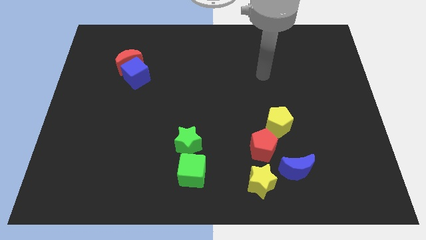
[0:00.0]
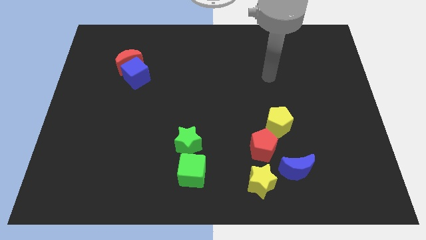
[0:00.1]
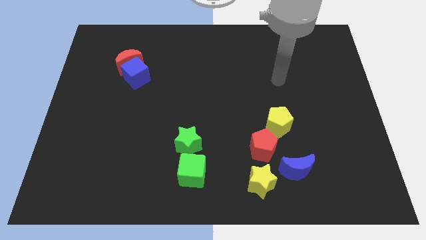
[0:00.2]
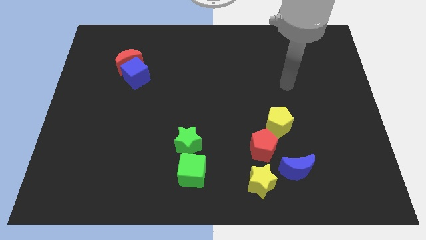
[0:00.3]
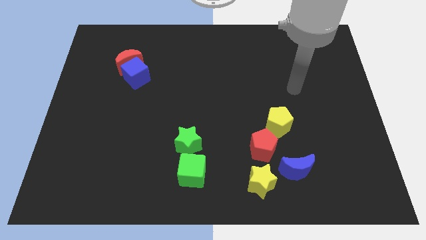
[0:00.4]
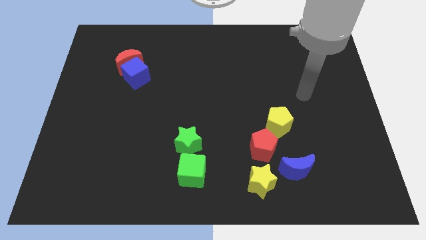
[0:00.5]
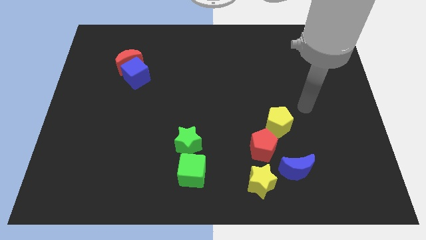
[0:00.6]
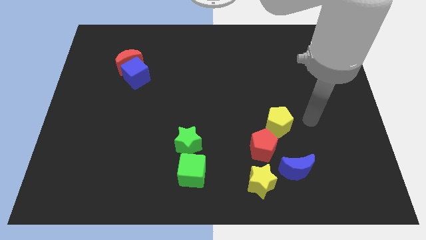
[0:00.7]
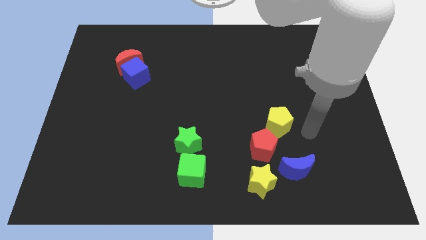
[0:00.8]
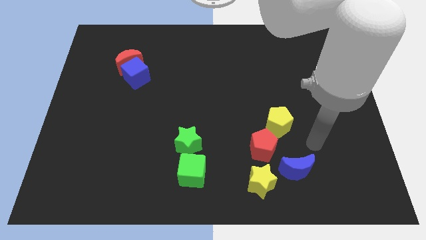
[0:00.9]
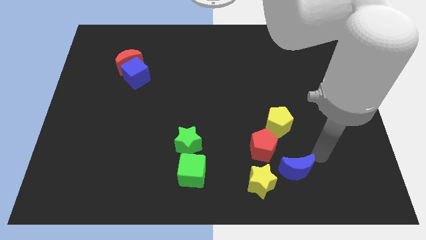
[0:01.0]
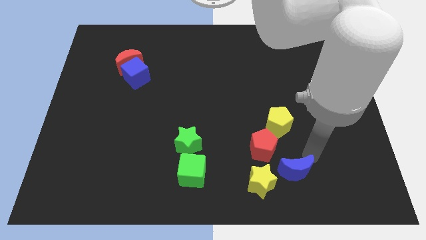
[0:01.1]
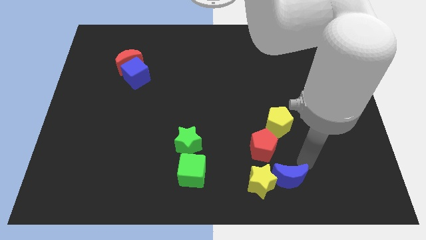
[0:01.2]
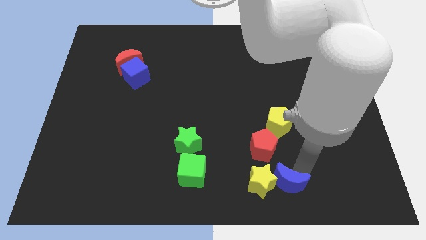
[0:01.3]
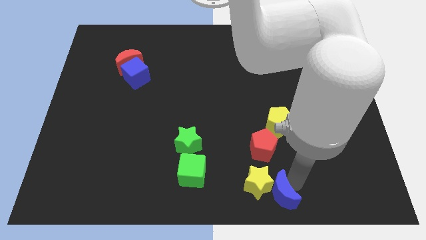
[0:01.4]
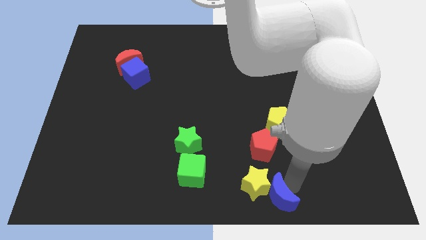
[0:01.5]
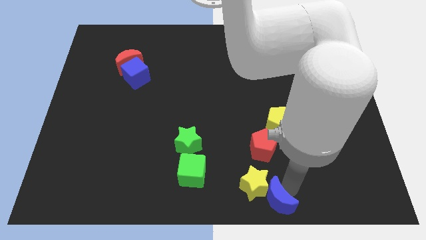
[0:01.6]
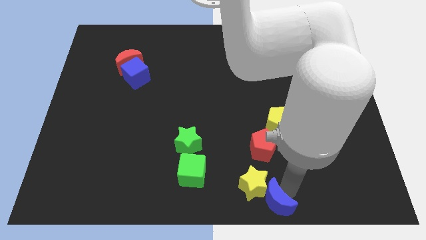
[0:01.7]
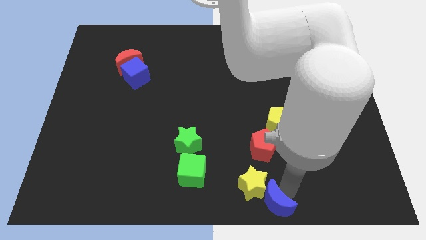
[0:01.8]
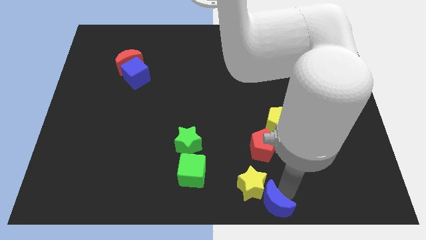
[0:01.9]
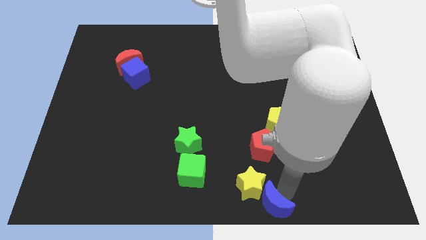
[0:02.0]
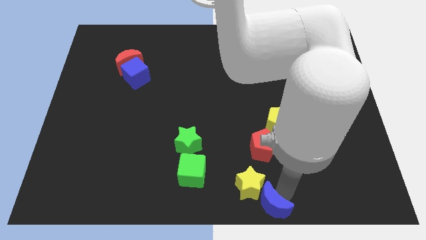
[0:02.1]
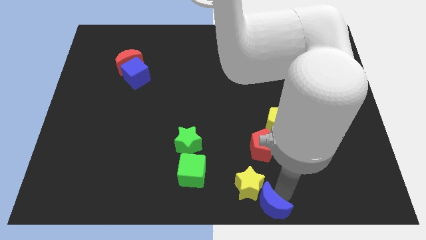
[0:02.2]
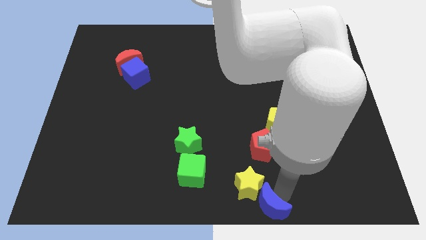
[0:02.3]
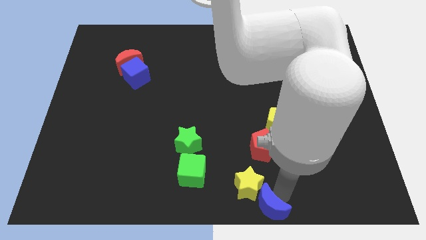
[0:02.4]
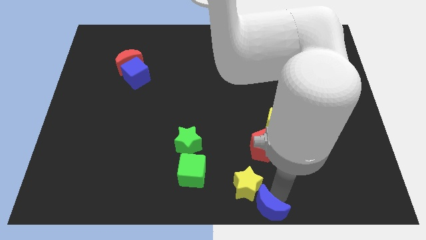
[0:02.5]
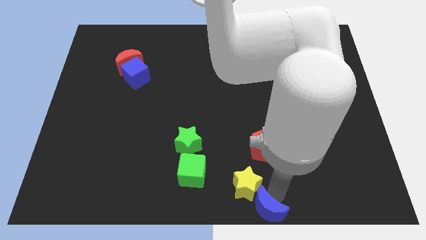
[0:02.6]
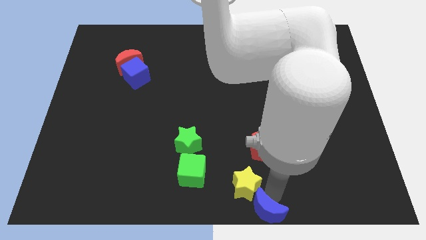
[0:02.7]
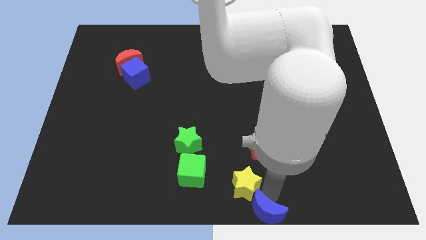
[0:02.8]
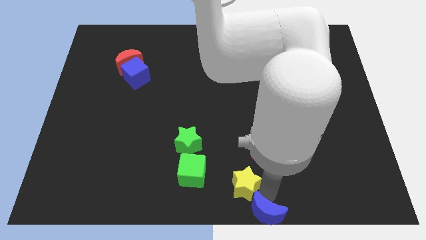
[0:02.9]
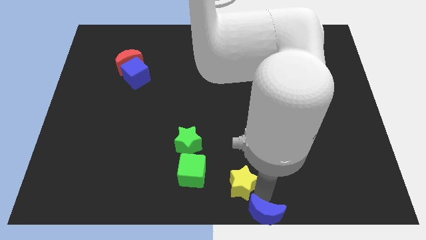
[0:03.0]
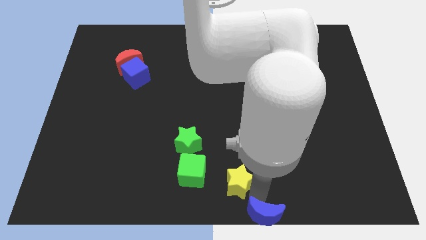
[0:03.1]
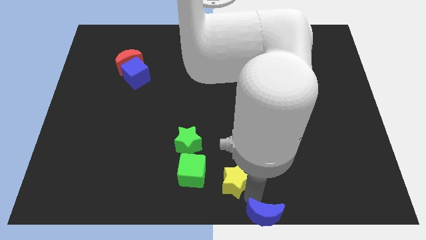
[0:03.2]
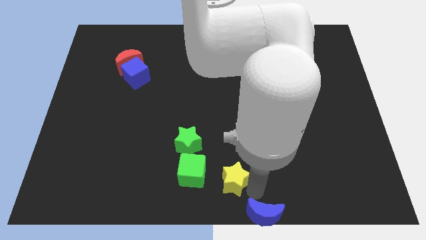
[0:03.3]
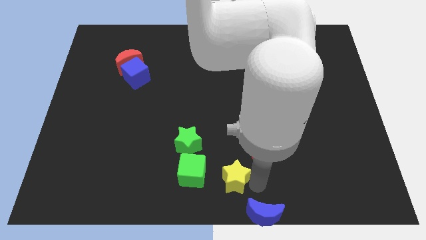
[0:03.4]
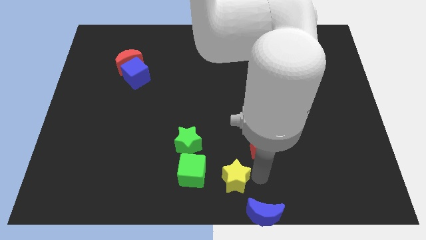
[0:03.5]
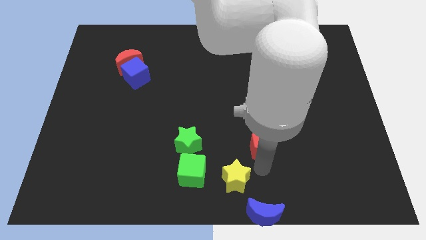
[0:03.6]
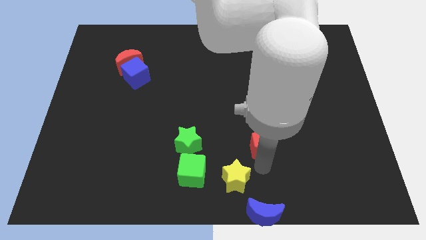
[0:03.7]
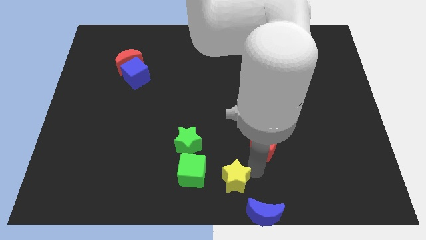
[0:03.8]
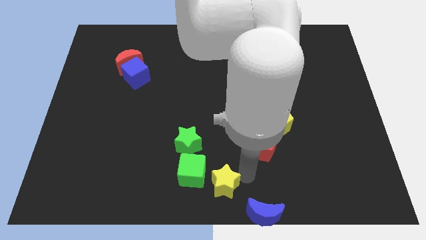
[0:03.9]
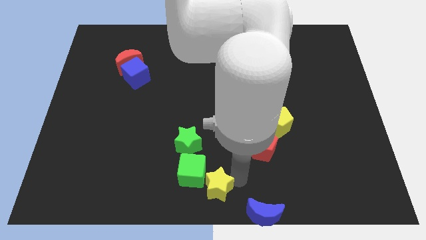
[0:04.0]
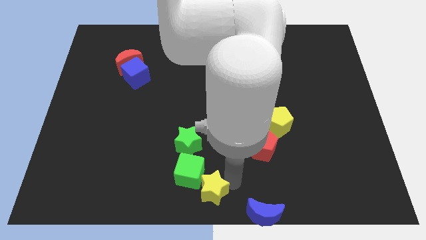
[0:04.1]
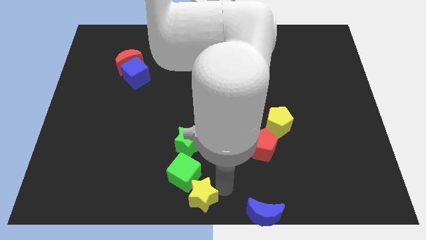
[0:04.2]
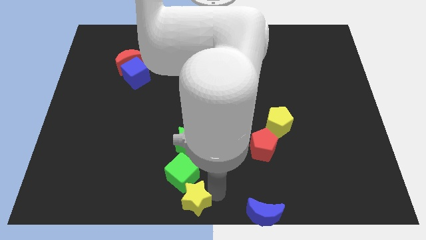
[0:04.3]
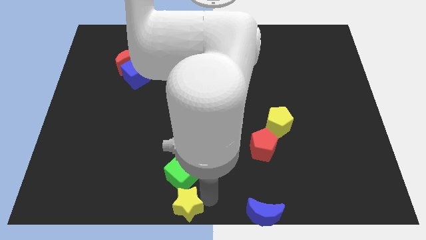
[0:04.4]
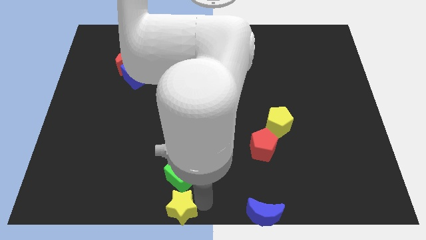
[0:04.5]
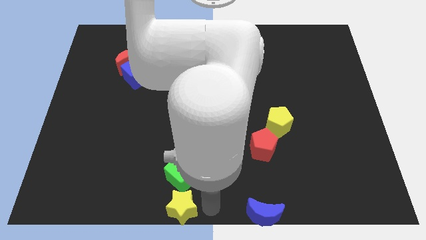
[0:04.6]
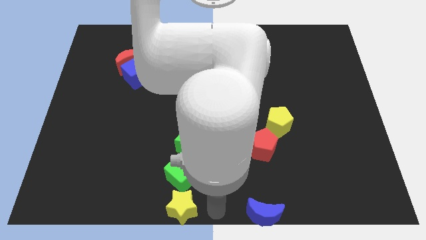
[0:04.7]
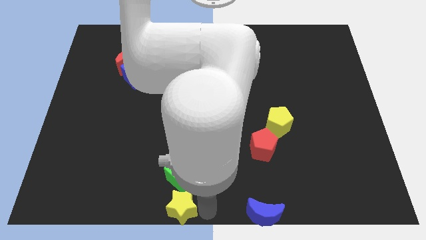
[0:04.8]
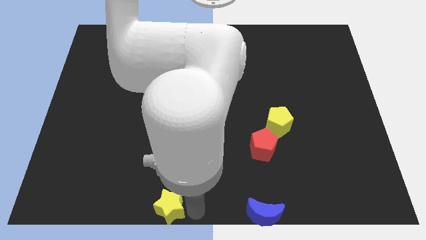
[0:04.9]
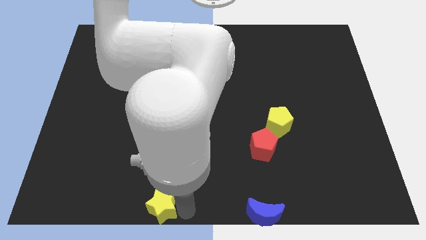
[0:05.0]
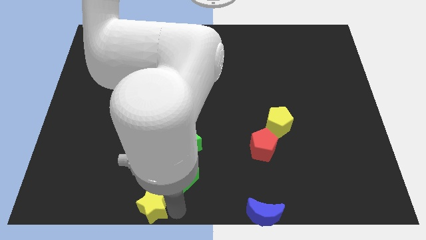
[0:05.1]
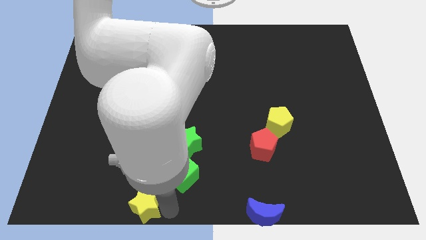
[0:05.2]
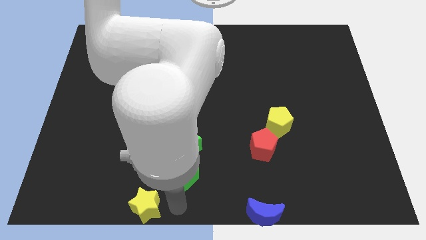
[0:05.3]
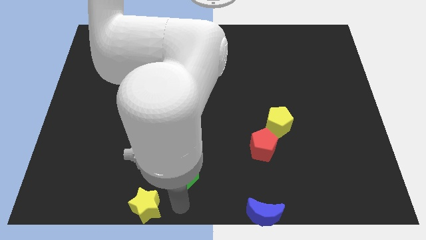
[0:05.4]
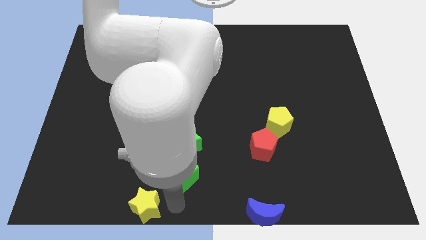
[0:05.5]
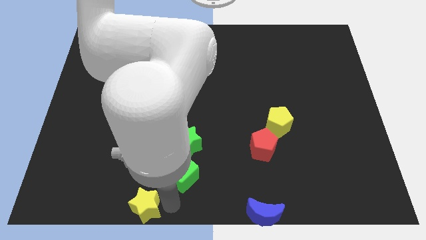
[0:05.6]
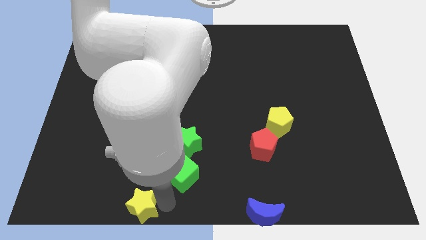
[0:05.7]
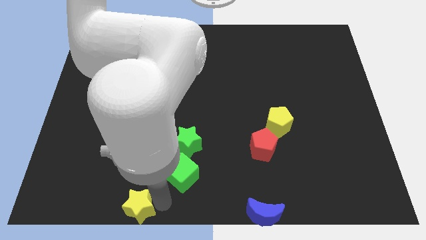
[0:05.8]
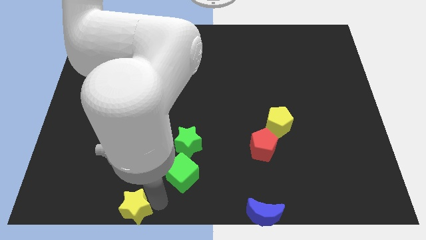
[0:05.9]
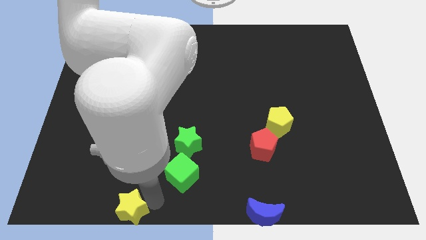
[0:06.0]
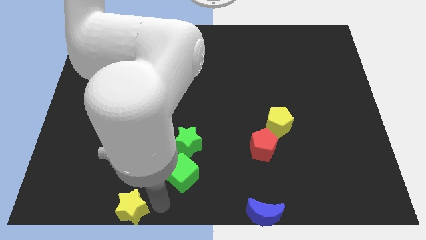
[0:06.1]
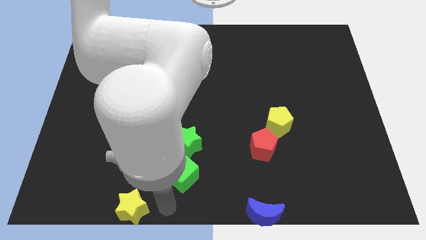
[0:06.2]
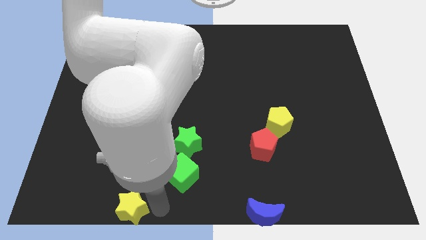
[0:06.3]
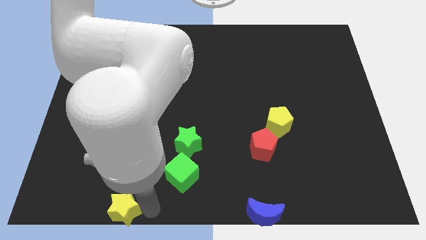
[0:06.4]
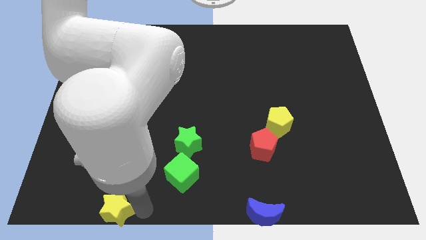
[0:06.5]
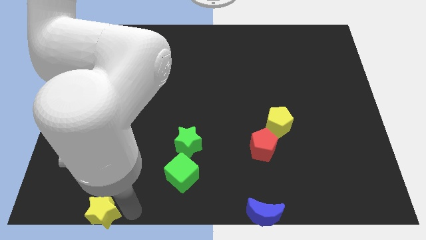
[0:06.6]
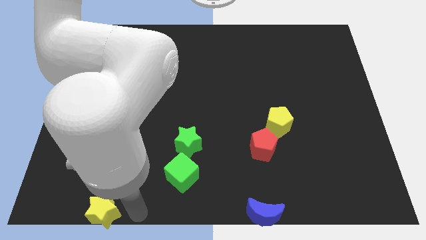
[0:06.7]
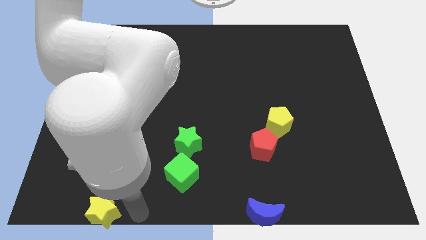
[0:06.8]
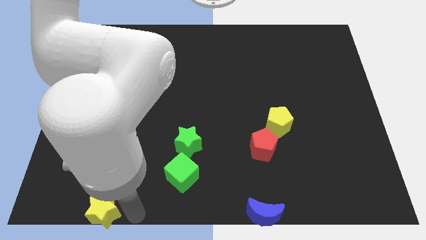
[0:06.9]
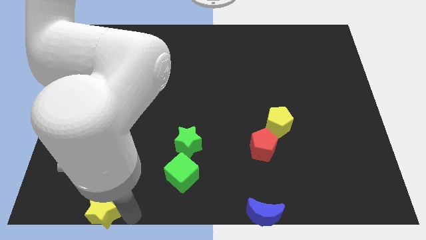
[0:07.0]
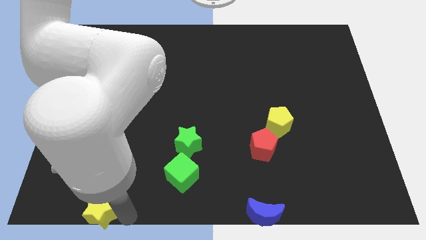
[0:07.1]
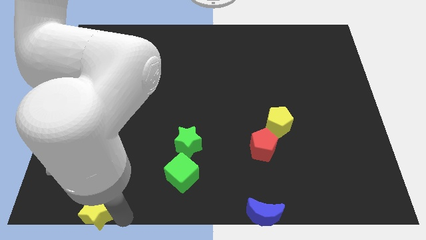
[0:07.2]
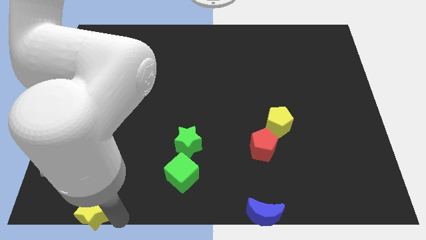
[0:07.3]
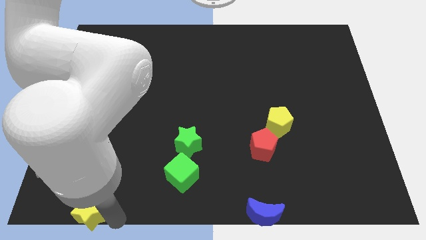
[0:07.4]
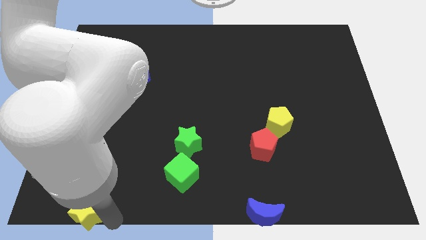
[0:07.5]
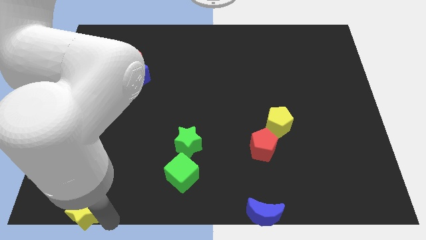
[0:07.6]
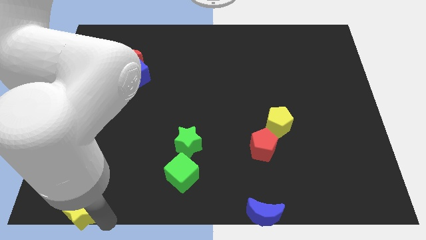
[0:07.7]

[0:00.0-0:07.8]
move the yellow star to the lower left corner
